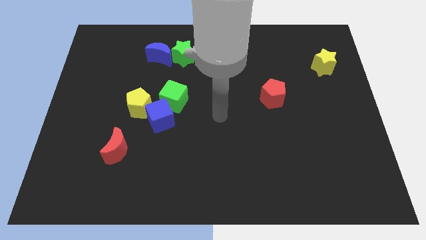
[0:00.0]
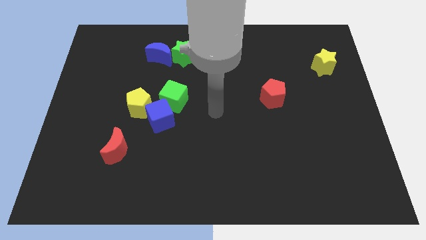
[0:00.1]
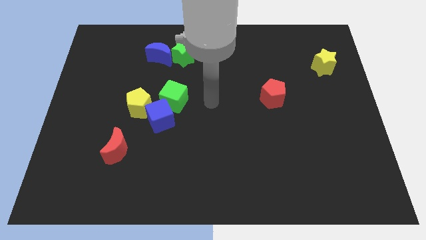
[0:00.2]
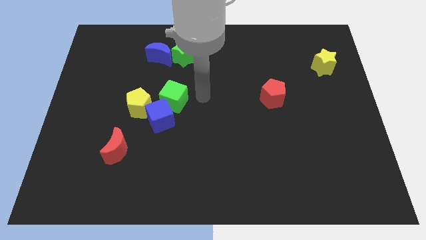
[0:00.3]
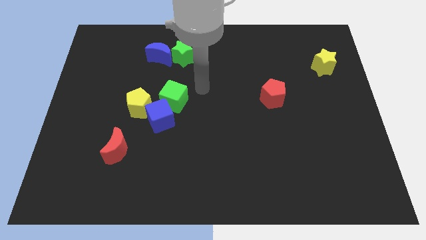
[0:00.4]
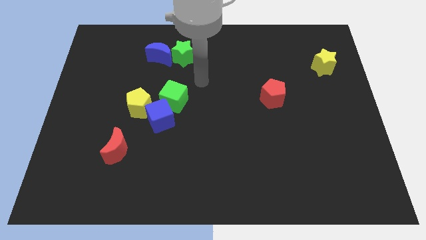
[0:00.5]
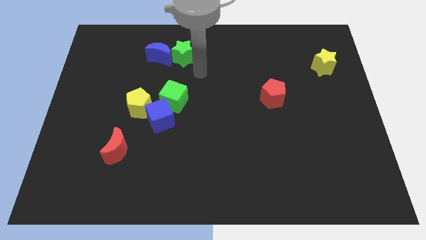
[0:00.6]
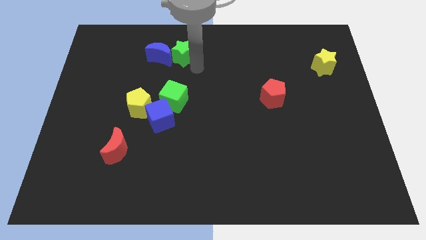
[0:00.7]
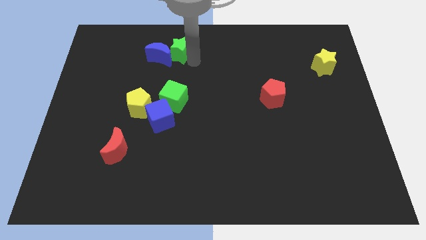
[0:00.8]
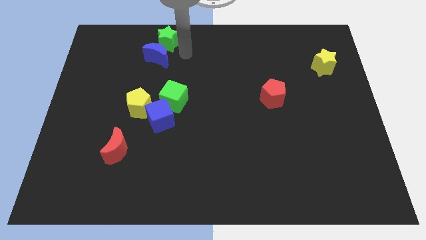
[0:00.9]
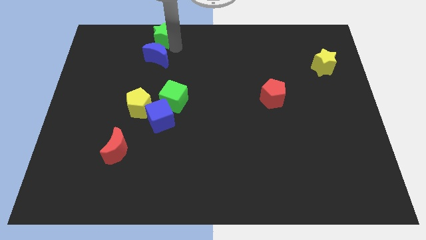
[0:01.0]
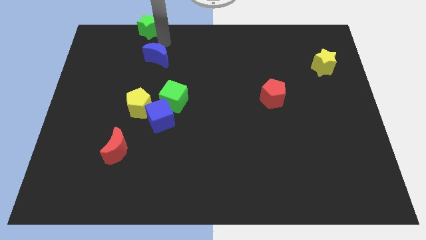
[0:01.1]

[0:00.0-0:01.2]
pull the blue moon apart from the green star

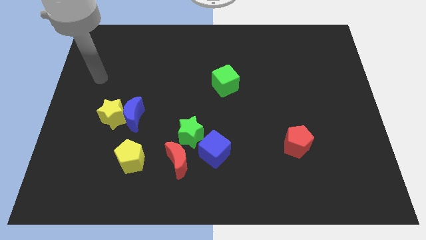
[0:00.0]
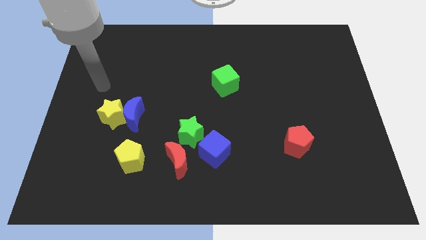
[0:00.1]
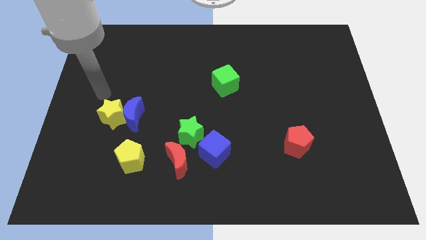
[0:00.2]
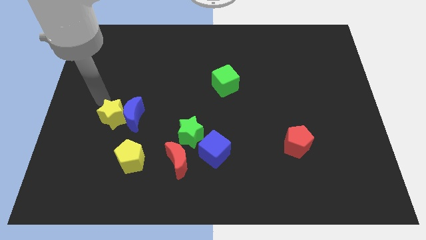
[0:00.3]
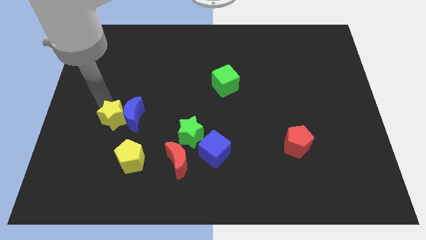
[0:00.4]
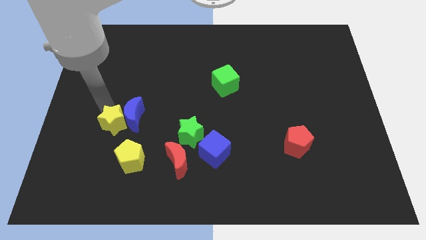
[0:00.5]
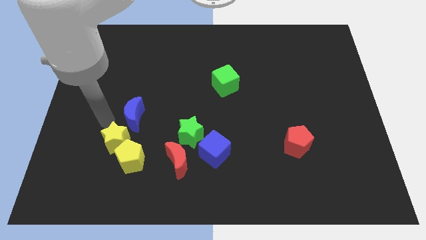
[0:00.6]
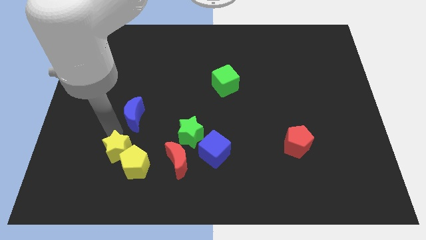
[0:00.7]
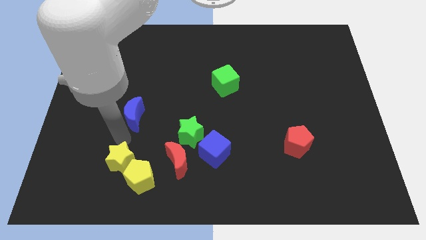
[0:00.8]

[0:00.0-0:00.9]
move the blue moon away from the yellow star

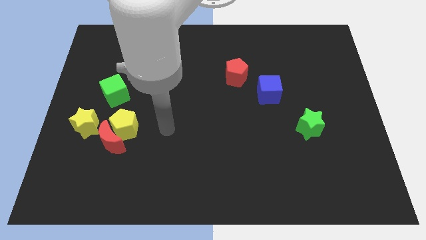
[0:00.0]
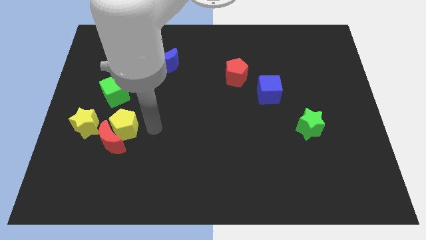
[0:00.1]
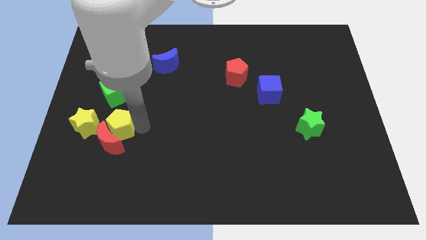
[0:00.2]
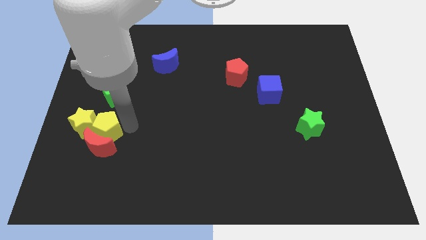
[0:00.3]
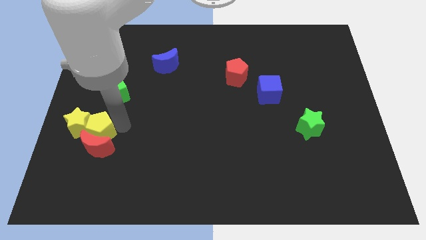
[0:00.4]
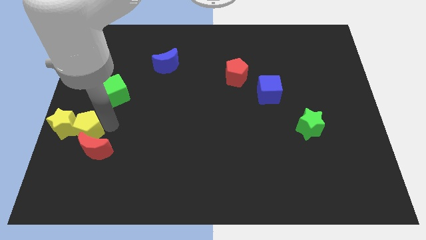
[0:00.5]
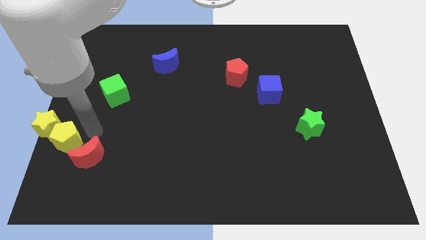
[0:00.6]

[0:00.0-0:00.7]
separate the red moon from the yellow pentagon and yellow star

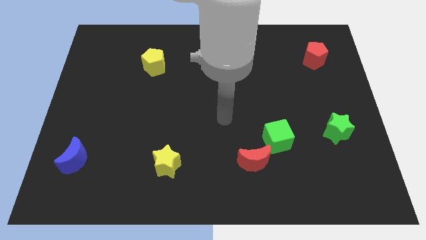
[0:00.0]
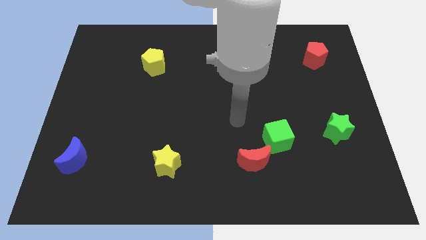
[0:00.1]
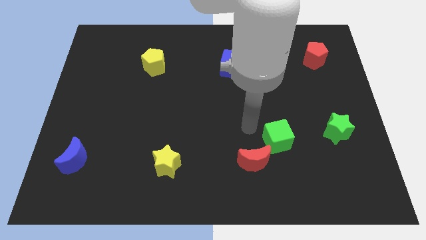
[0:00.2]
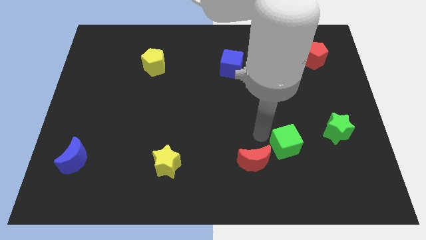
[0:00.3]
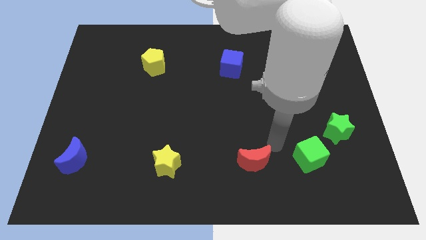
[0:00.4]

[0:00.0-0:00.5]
pull the red moon apart from the green cube

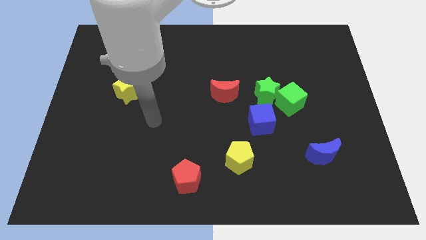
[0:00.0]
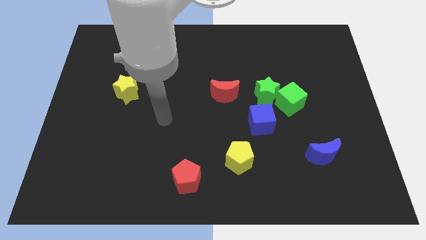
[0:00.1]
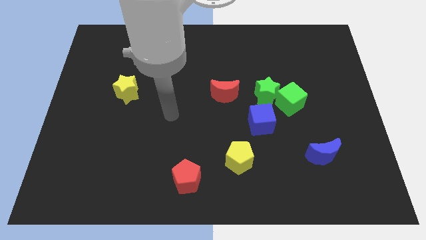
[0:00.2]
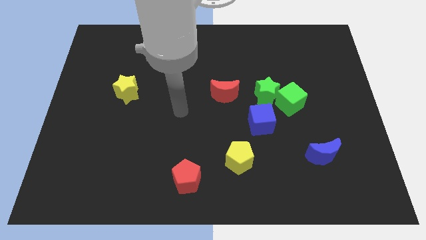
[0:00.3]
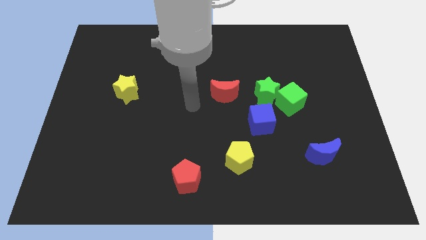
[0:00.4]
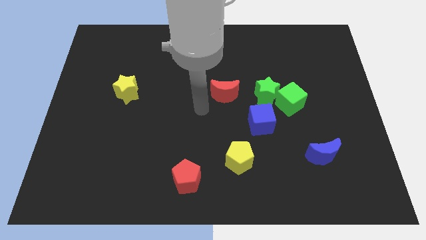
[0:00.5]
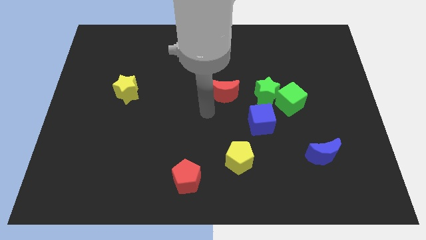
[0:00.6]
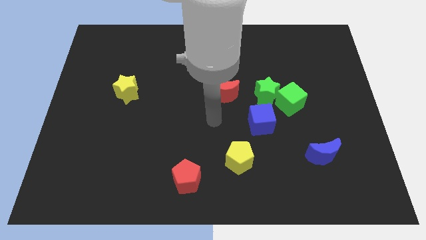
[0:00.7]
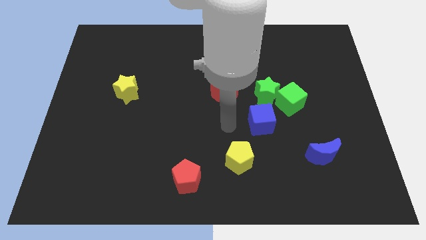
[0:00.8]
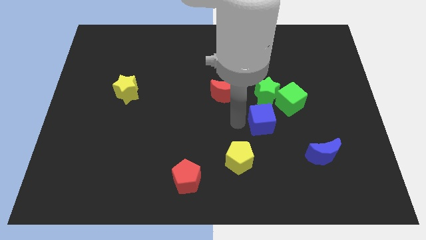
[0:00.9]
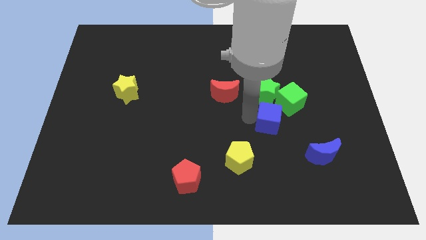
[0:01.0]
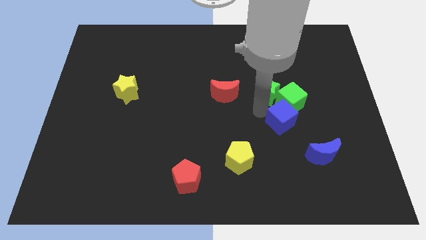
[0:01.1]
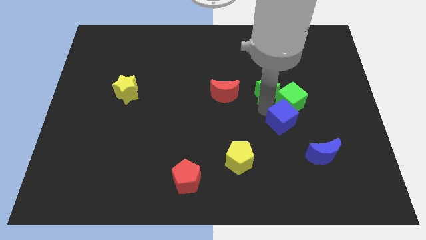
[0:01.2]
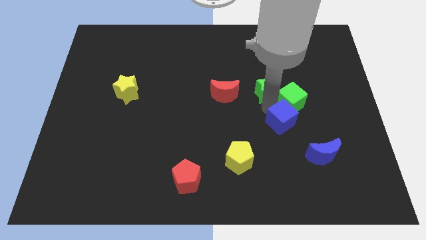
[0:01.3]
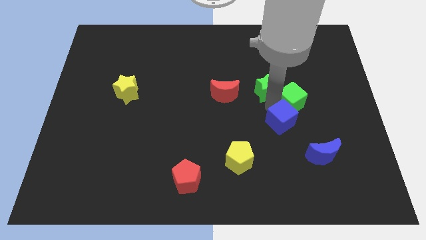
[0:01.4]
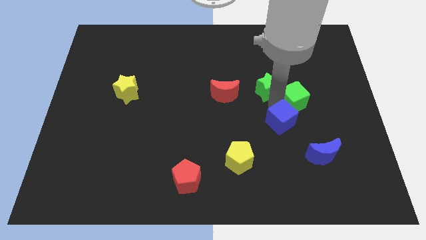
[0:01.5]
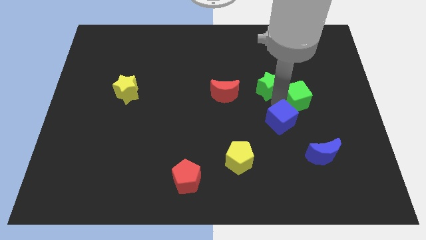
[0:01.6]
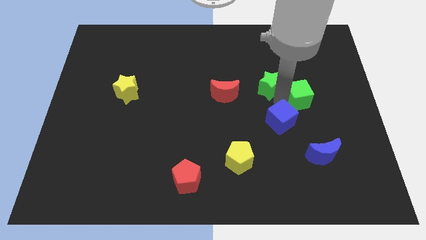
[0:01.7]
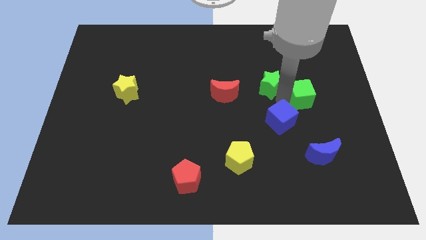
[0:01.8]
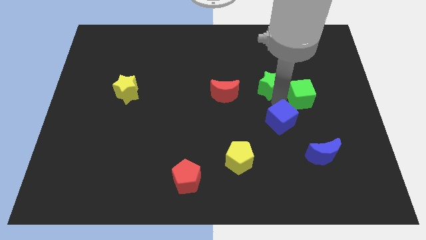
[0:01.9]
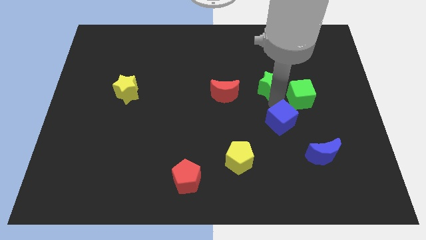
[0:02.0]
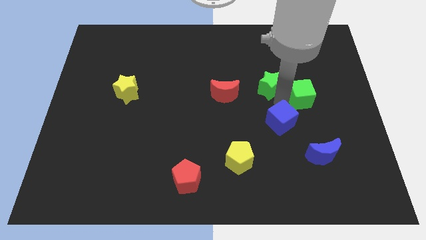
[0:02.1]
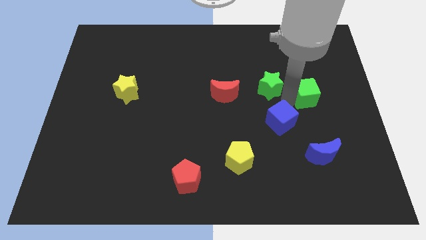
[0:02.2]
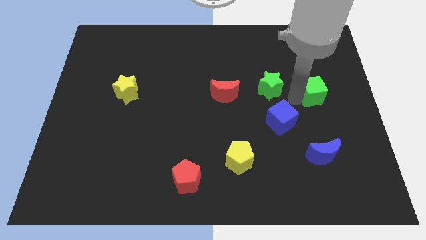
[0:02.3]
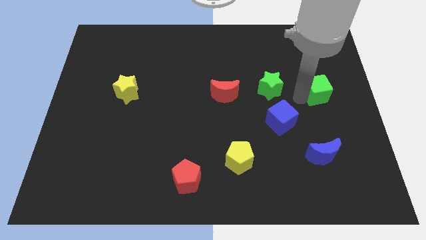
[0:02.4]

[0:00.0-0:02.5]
pull the green cube apart from the green star and blue cube

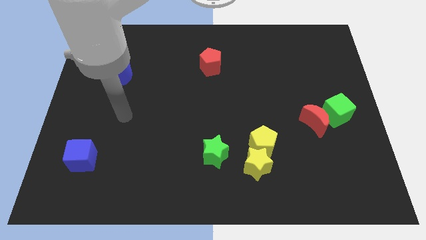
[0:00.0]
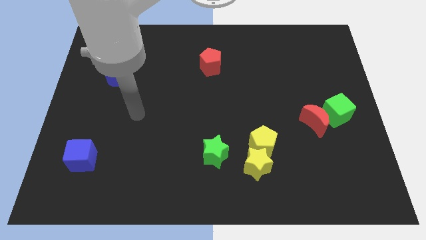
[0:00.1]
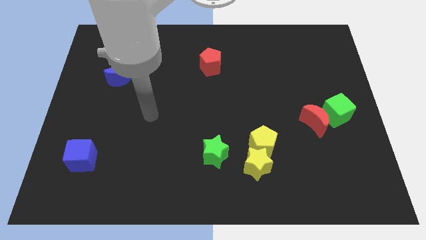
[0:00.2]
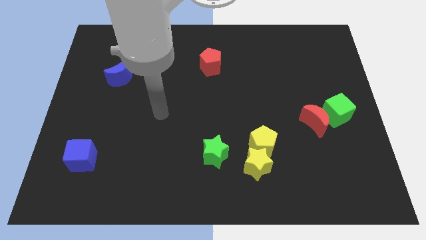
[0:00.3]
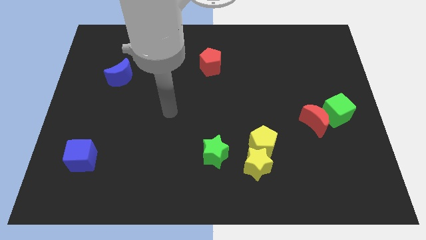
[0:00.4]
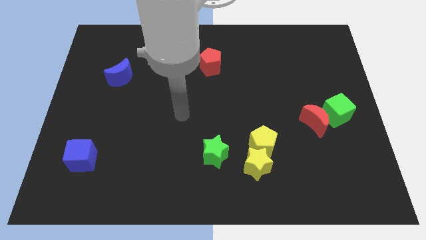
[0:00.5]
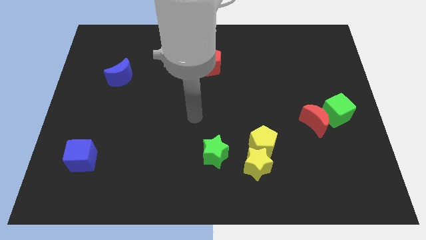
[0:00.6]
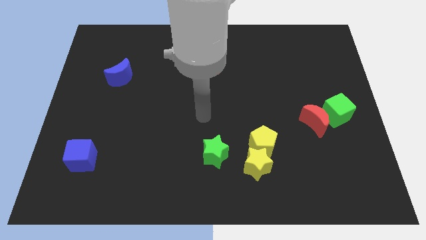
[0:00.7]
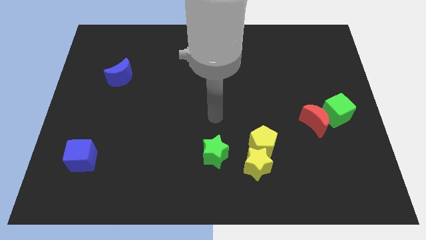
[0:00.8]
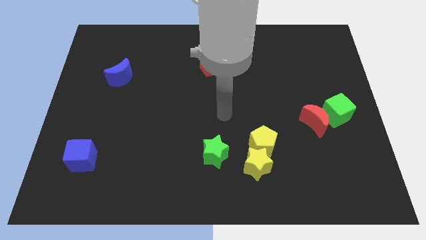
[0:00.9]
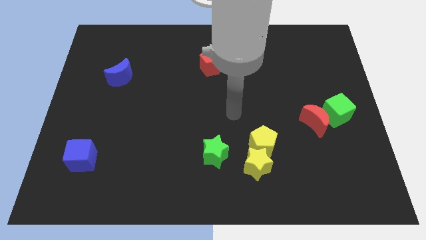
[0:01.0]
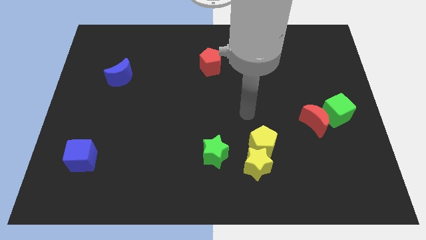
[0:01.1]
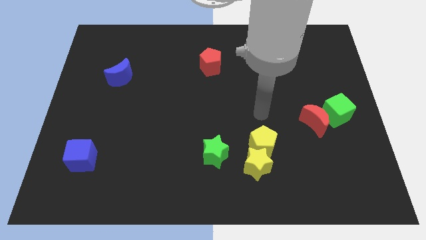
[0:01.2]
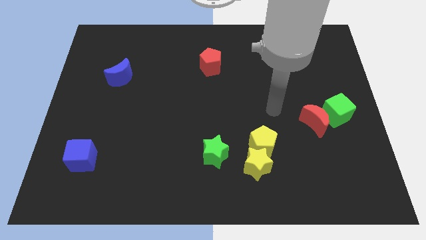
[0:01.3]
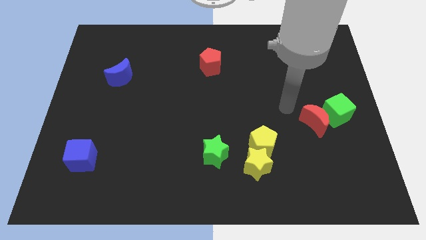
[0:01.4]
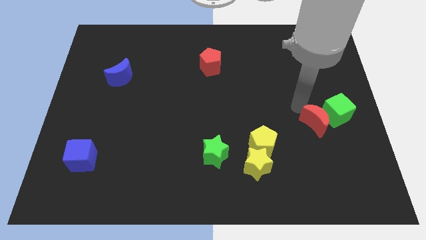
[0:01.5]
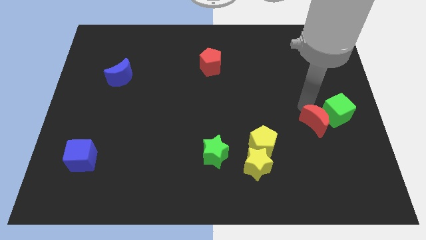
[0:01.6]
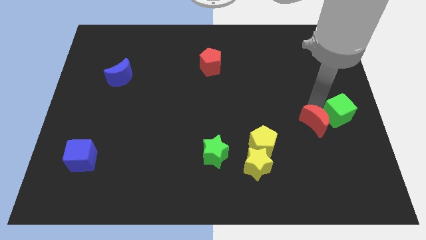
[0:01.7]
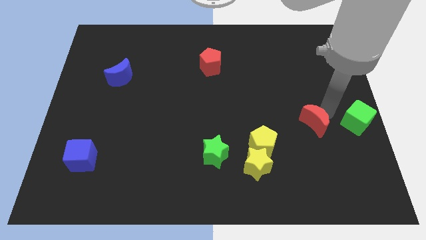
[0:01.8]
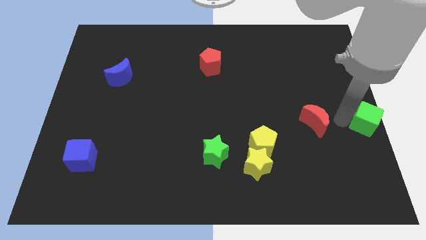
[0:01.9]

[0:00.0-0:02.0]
separate the red moon from the green cube

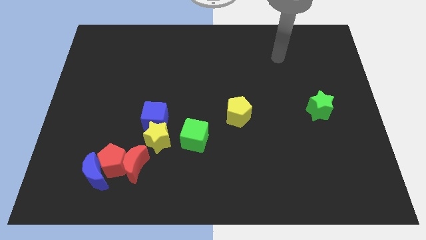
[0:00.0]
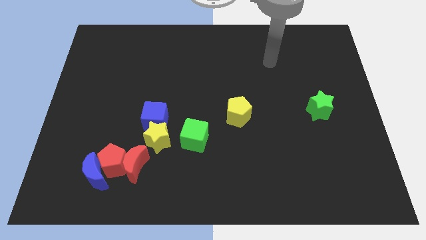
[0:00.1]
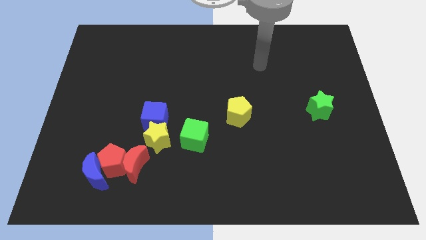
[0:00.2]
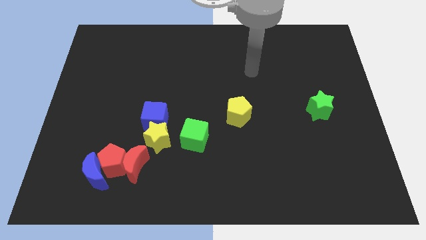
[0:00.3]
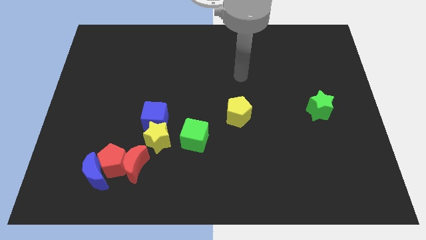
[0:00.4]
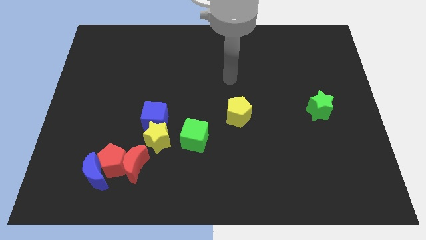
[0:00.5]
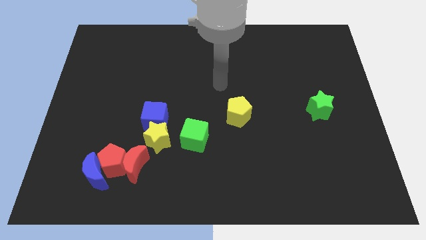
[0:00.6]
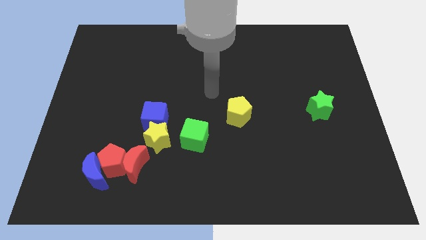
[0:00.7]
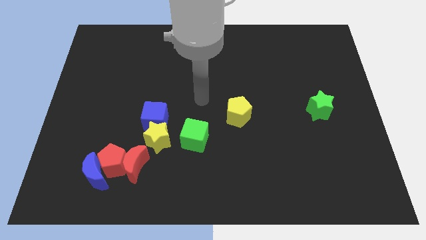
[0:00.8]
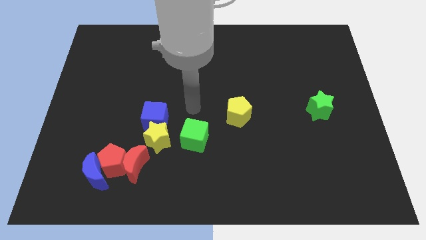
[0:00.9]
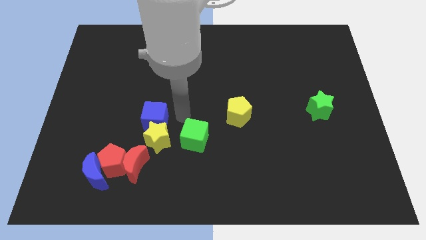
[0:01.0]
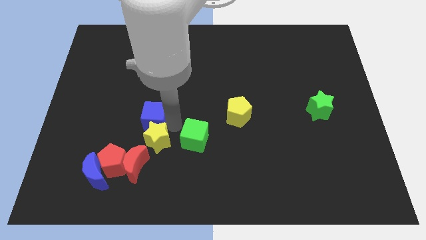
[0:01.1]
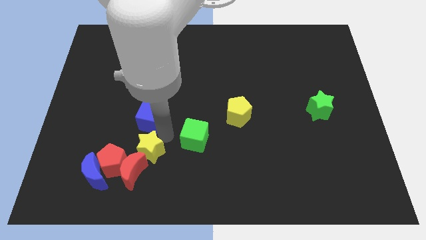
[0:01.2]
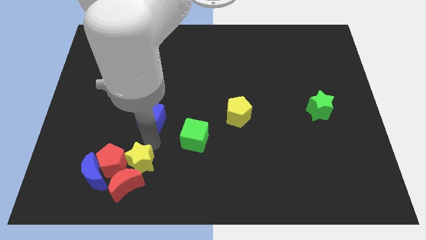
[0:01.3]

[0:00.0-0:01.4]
separate the blue cube from the yellow star

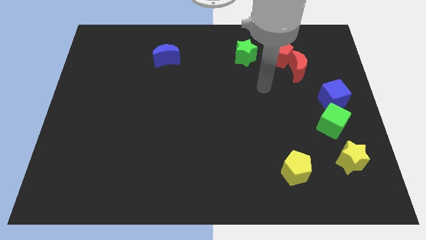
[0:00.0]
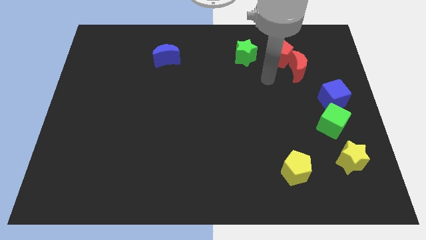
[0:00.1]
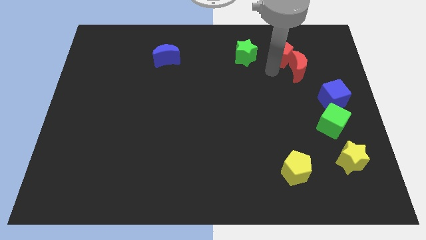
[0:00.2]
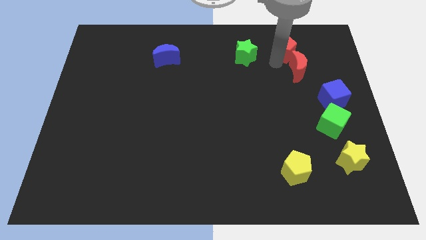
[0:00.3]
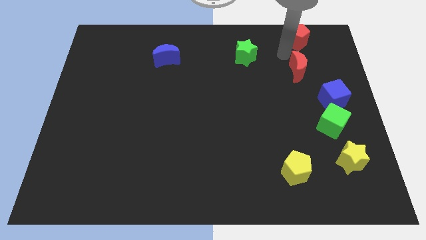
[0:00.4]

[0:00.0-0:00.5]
move the red moon away from the red pentagon
